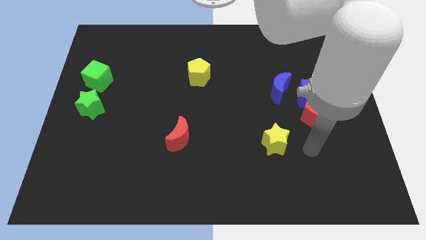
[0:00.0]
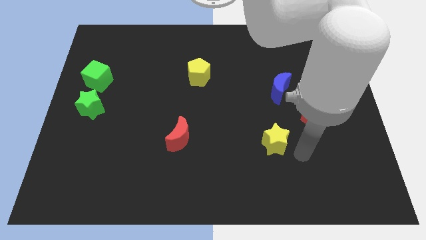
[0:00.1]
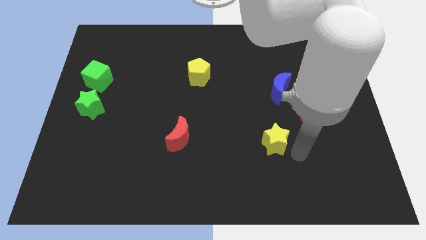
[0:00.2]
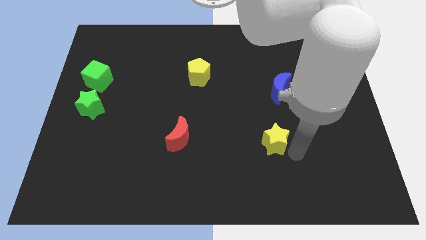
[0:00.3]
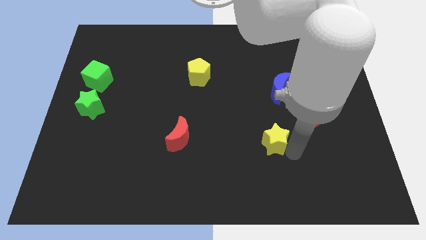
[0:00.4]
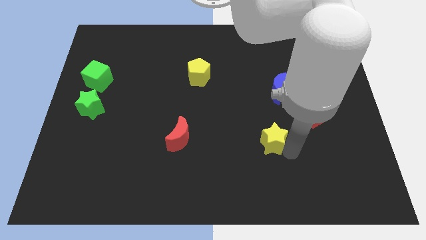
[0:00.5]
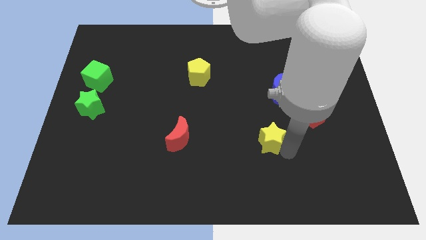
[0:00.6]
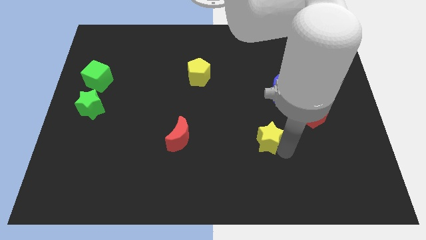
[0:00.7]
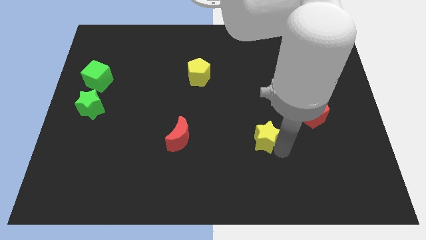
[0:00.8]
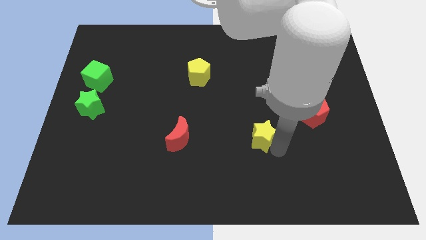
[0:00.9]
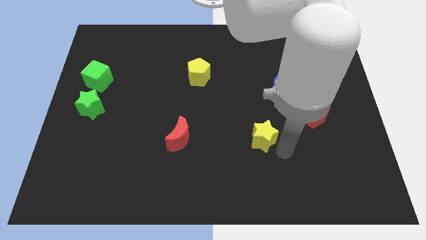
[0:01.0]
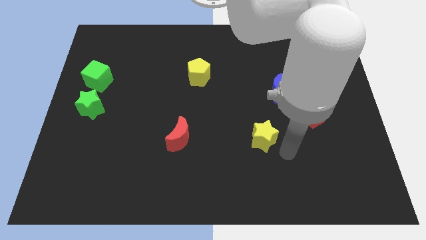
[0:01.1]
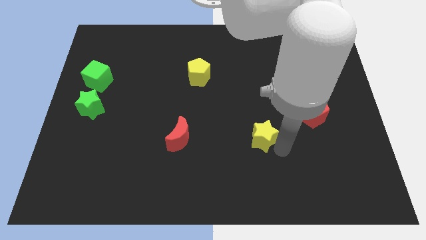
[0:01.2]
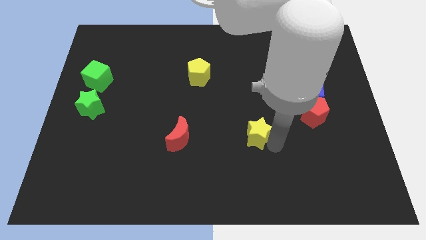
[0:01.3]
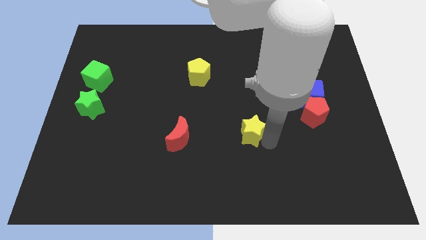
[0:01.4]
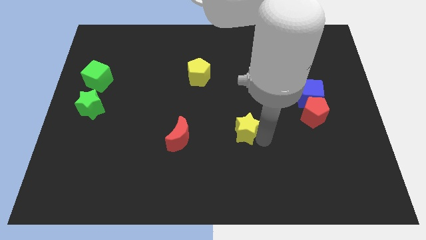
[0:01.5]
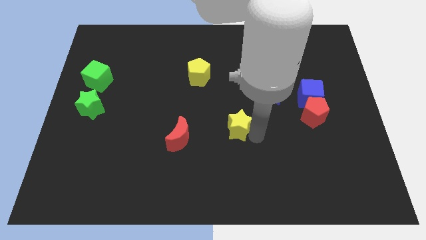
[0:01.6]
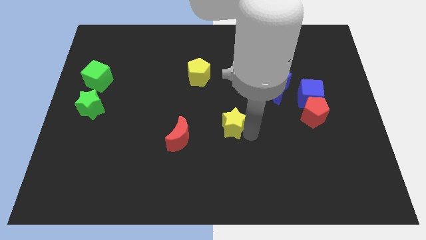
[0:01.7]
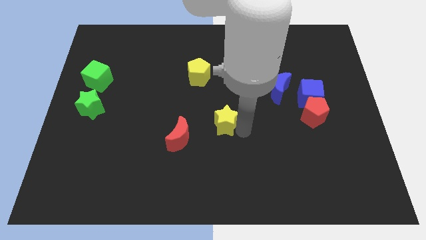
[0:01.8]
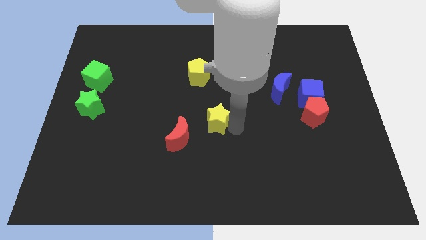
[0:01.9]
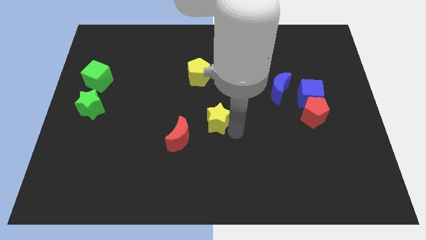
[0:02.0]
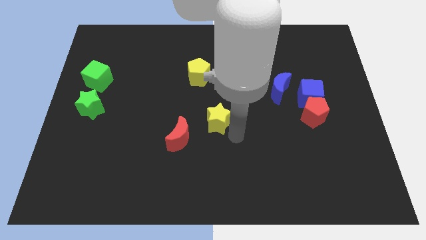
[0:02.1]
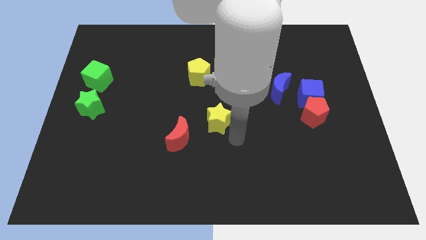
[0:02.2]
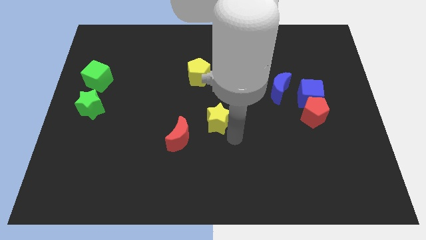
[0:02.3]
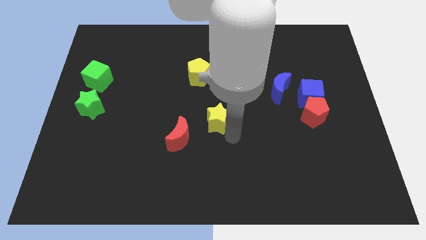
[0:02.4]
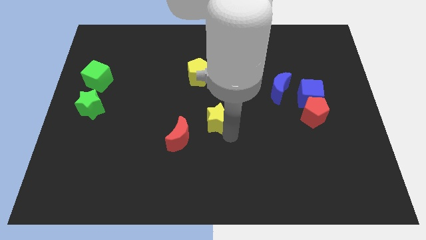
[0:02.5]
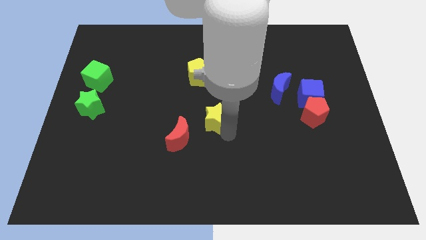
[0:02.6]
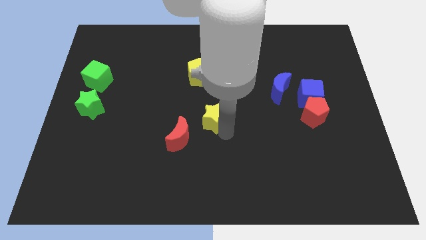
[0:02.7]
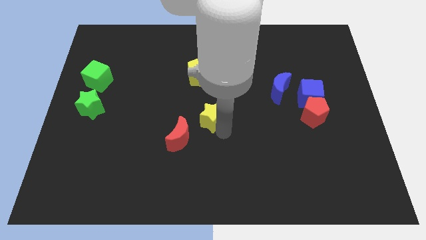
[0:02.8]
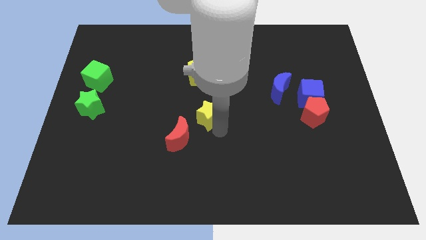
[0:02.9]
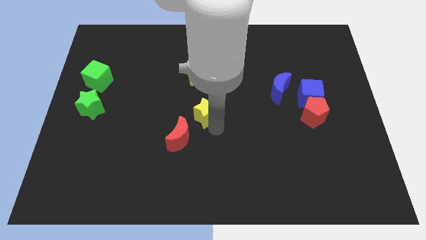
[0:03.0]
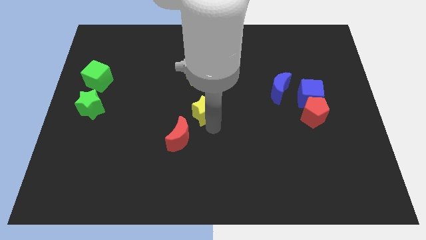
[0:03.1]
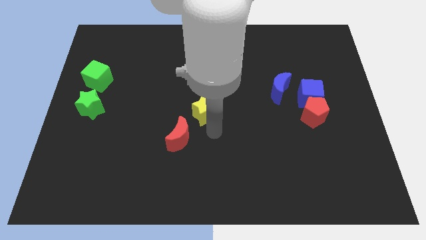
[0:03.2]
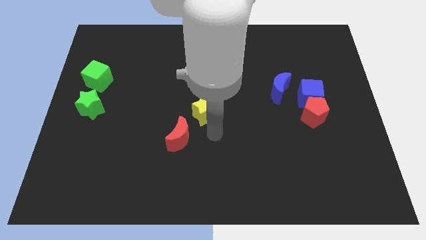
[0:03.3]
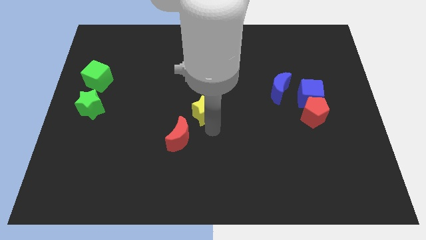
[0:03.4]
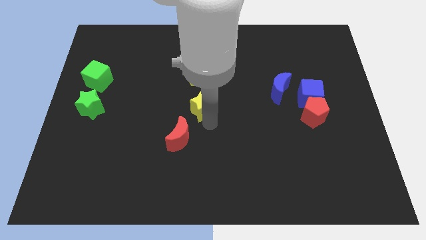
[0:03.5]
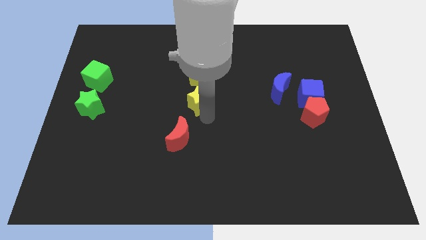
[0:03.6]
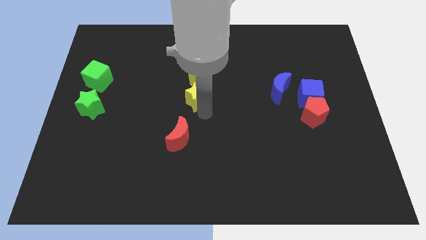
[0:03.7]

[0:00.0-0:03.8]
slide the yellow star up and to the left diagonally

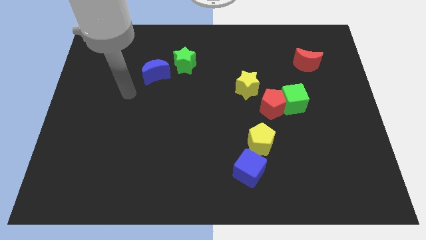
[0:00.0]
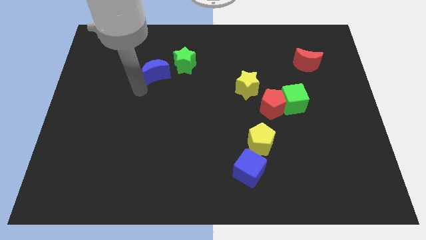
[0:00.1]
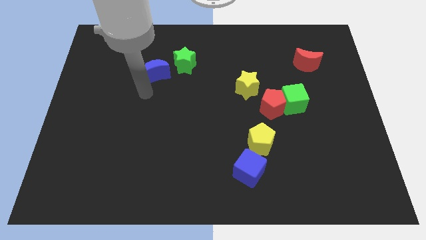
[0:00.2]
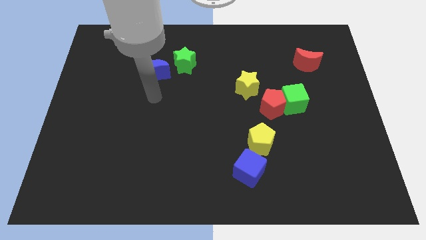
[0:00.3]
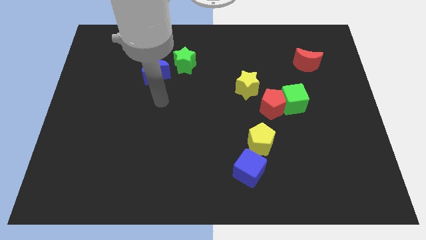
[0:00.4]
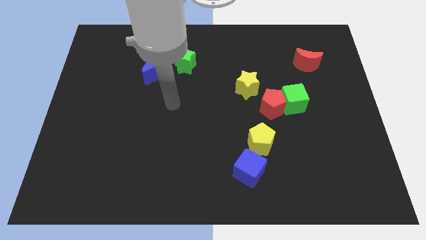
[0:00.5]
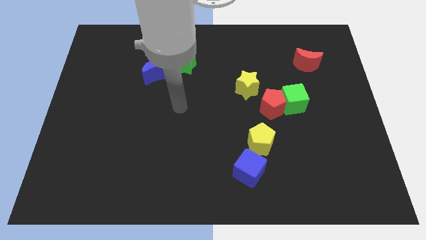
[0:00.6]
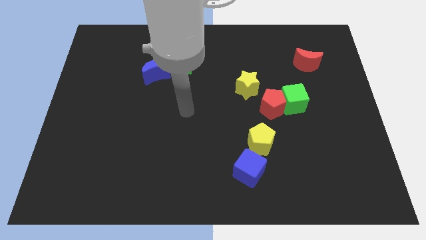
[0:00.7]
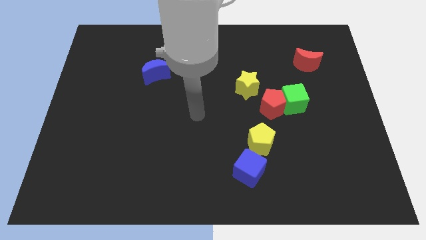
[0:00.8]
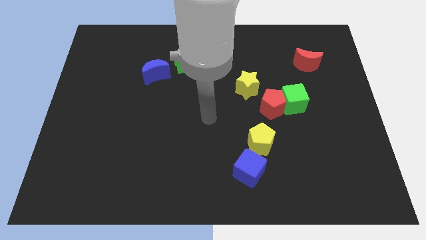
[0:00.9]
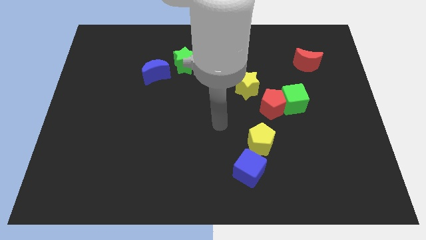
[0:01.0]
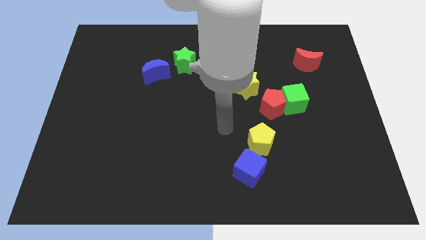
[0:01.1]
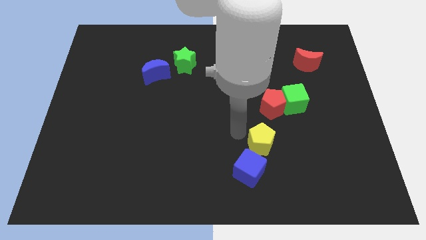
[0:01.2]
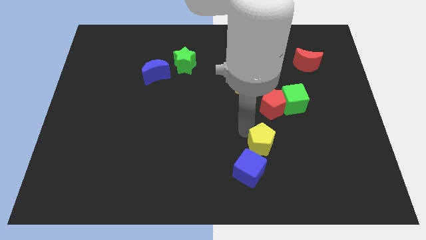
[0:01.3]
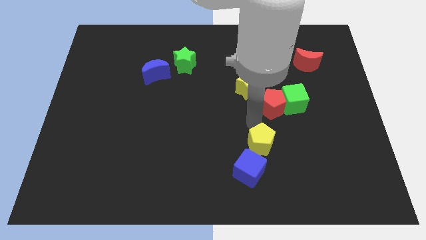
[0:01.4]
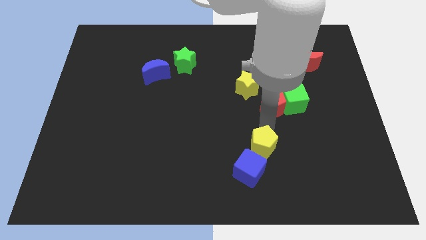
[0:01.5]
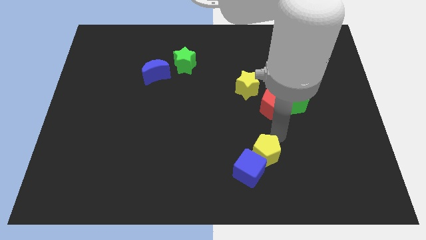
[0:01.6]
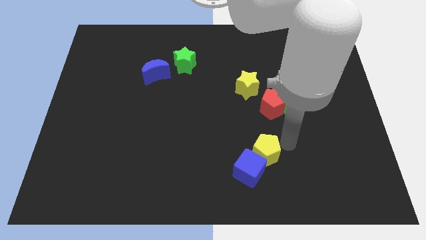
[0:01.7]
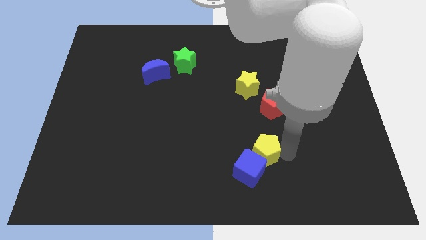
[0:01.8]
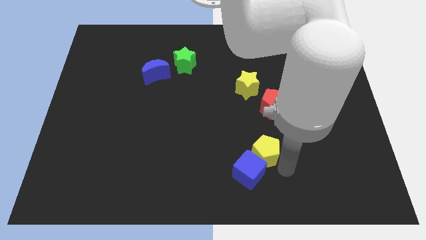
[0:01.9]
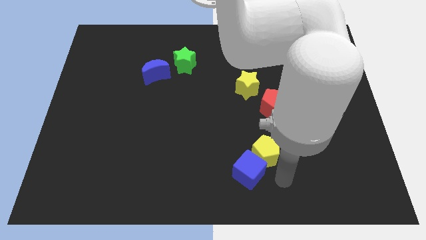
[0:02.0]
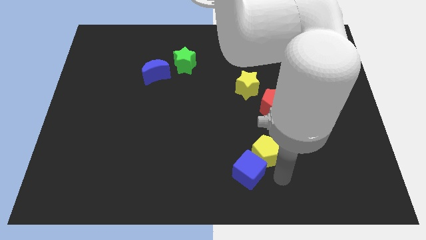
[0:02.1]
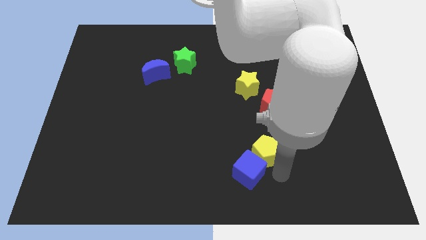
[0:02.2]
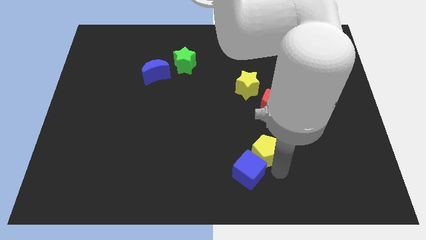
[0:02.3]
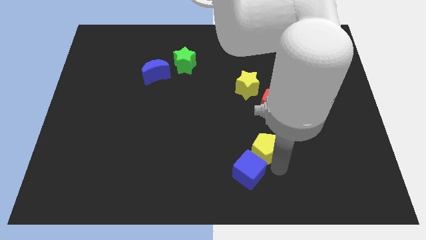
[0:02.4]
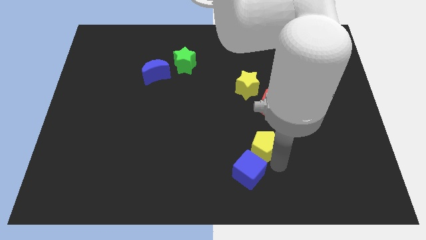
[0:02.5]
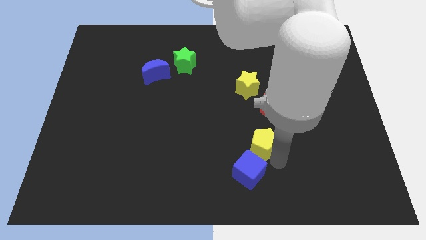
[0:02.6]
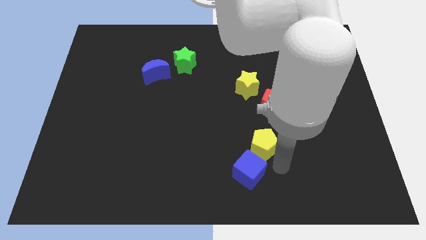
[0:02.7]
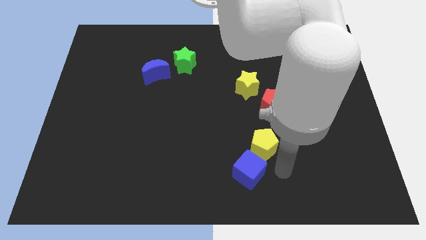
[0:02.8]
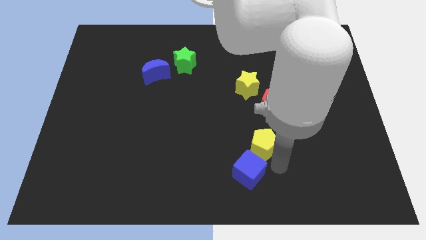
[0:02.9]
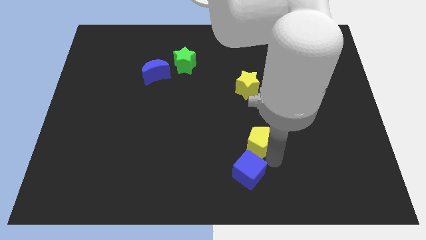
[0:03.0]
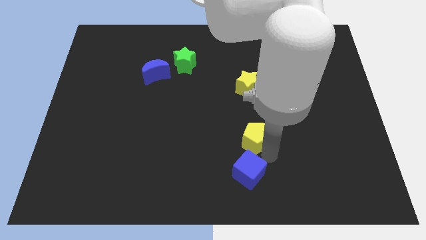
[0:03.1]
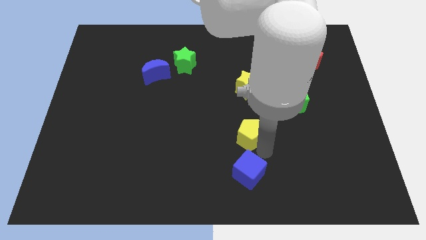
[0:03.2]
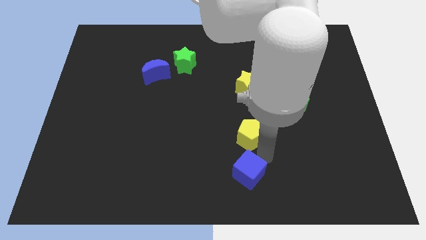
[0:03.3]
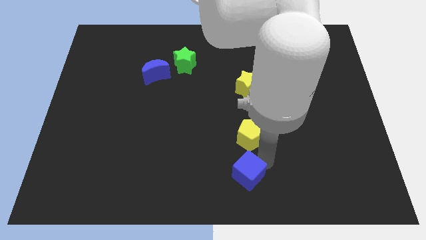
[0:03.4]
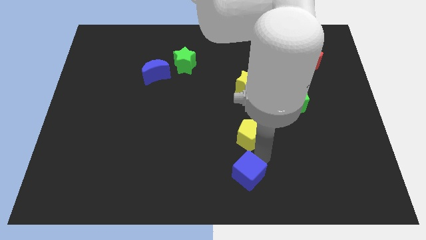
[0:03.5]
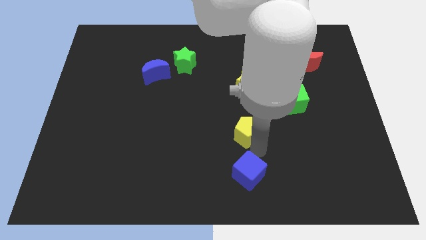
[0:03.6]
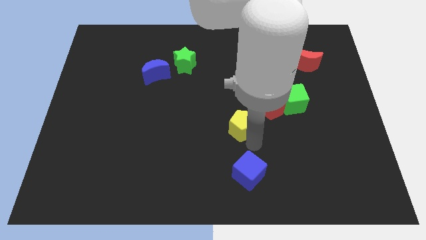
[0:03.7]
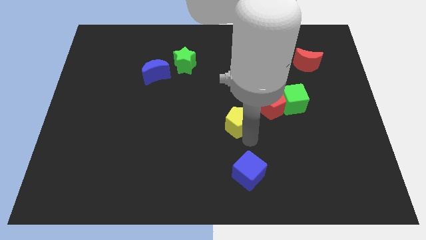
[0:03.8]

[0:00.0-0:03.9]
slide the yellow pentagon upwards and to the left somewhat

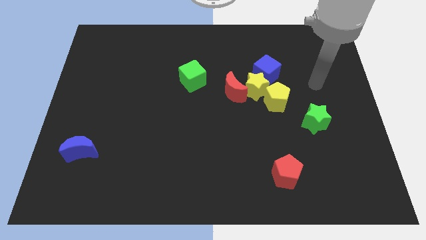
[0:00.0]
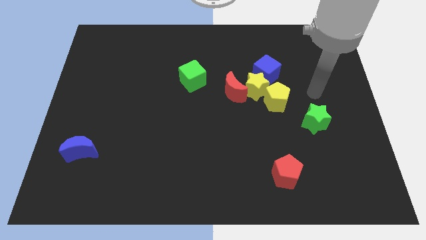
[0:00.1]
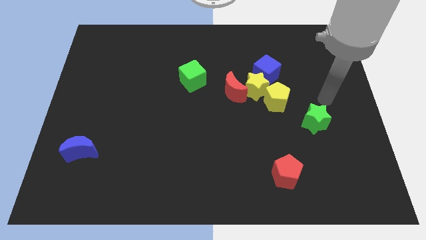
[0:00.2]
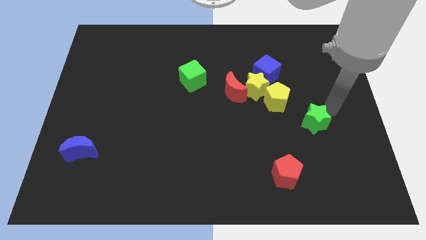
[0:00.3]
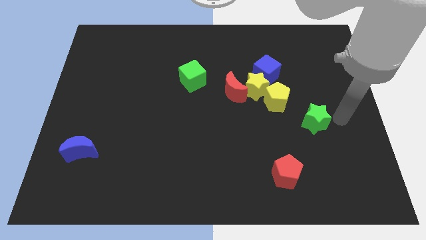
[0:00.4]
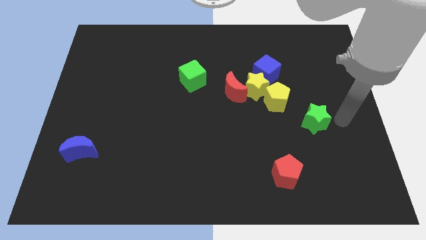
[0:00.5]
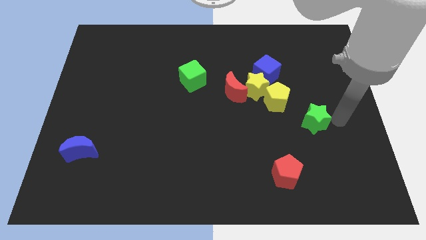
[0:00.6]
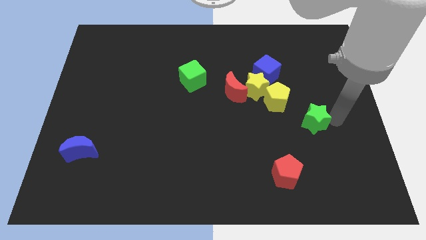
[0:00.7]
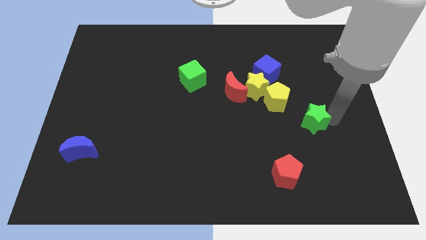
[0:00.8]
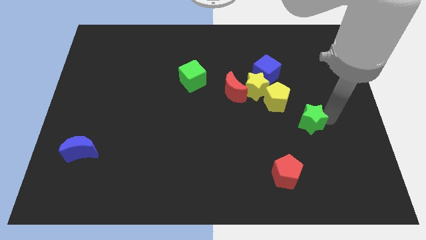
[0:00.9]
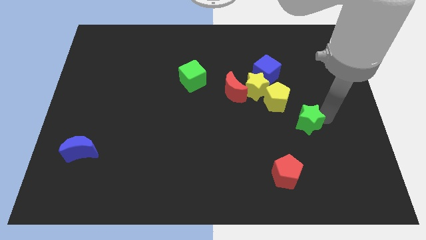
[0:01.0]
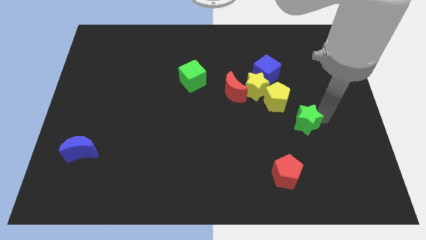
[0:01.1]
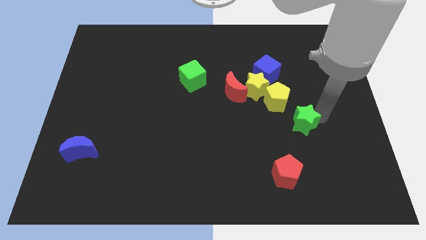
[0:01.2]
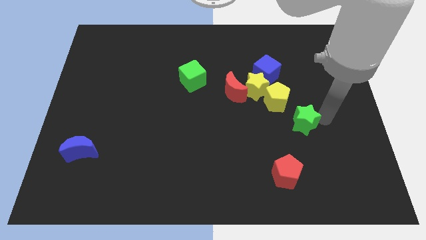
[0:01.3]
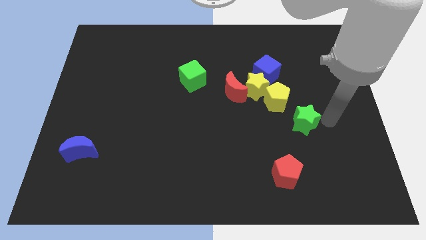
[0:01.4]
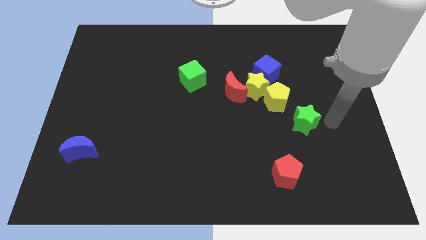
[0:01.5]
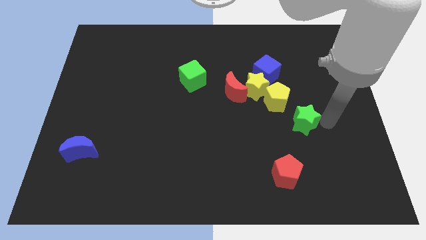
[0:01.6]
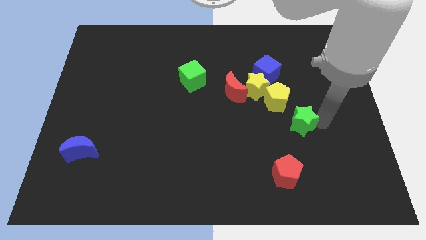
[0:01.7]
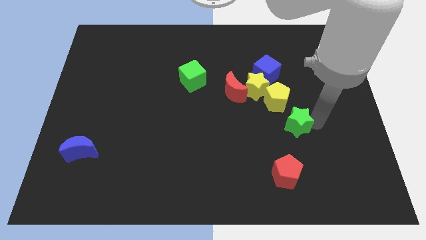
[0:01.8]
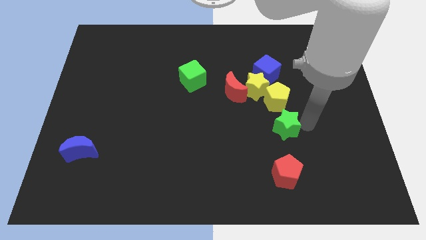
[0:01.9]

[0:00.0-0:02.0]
move the green star a bit left
